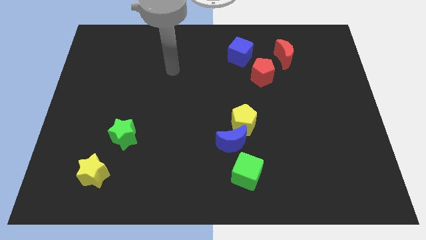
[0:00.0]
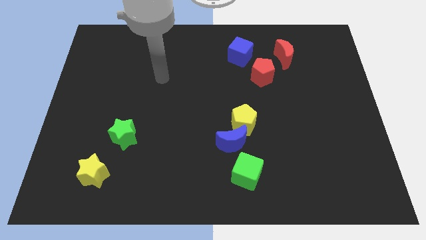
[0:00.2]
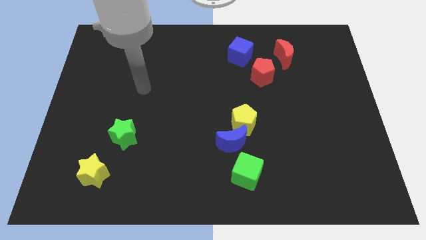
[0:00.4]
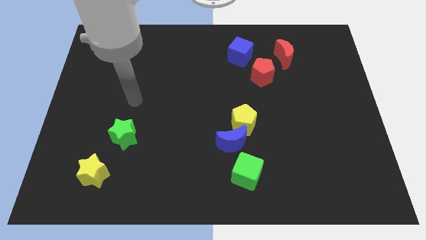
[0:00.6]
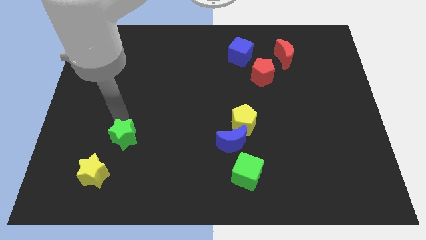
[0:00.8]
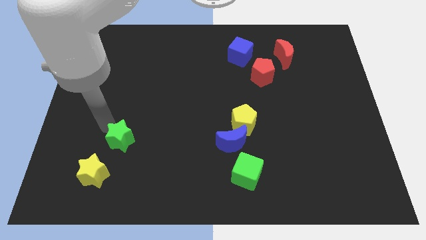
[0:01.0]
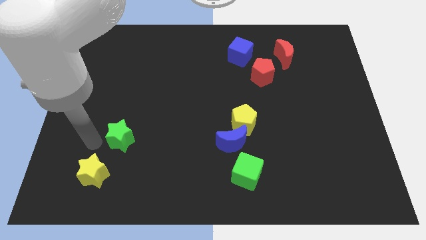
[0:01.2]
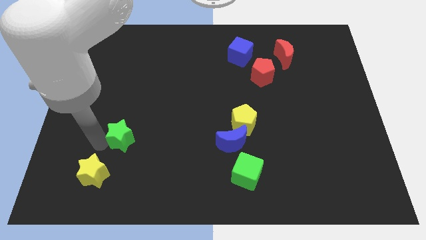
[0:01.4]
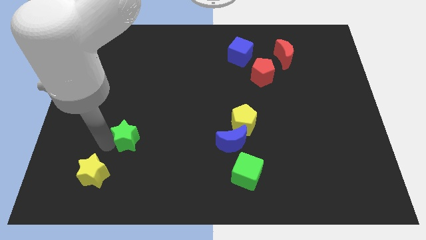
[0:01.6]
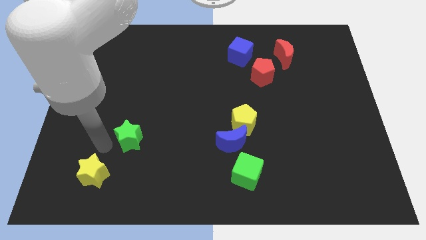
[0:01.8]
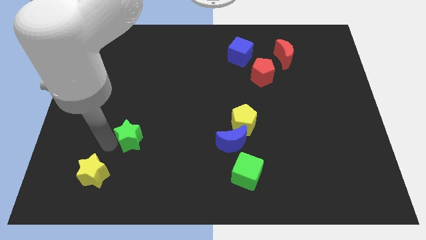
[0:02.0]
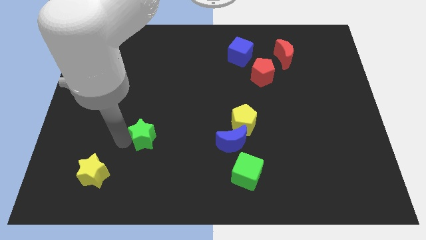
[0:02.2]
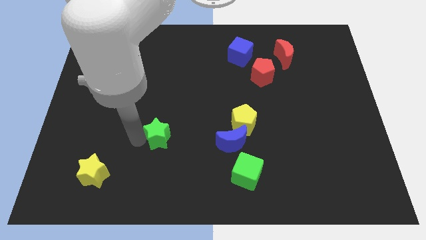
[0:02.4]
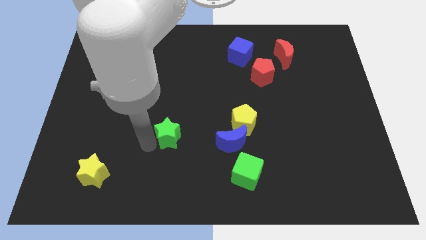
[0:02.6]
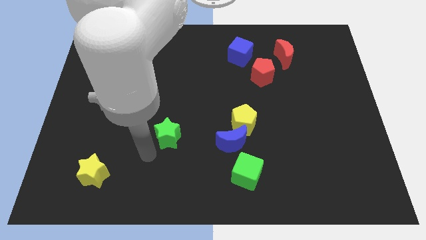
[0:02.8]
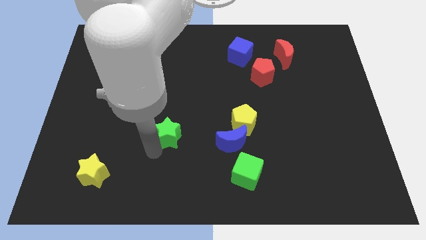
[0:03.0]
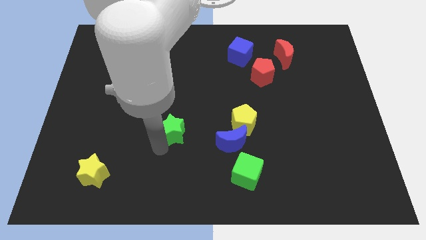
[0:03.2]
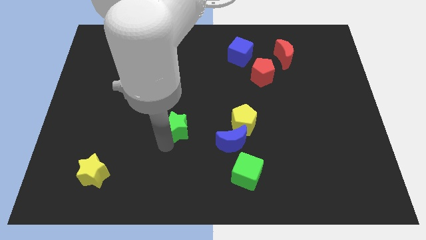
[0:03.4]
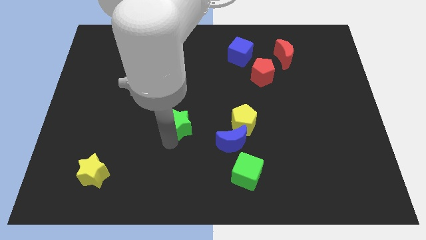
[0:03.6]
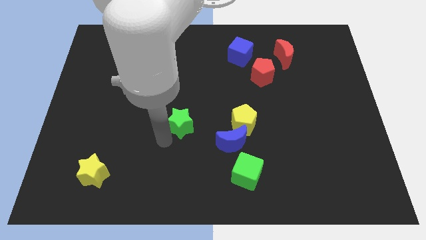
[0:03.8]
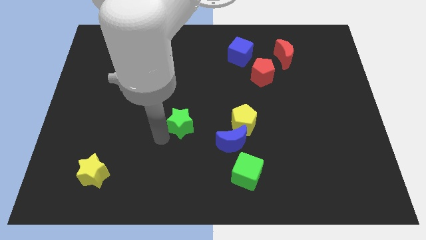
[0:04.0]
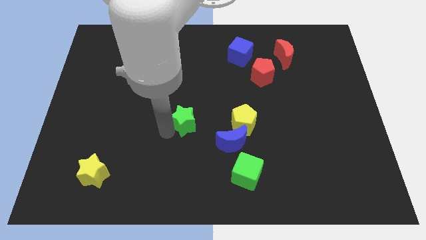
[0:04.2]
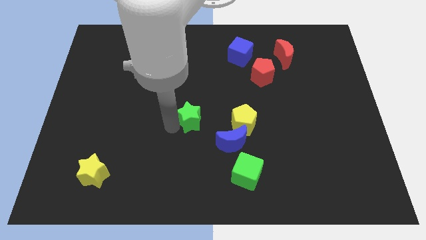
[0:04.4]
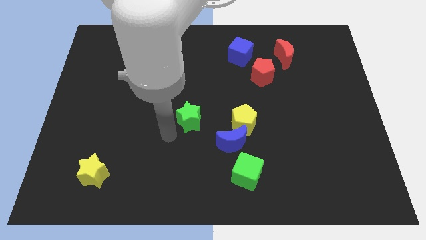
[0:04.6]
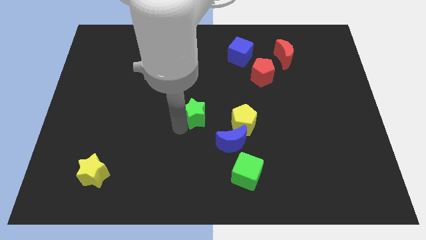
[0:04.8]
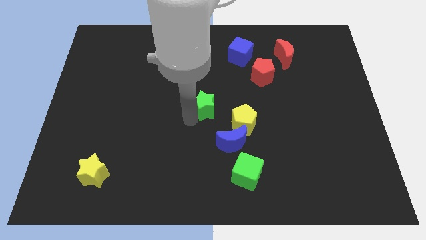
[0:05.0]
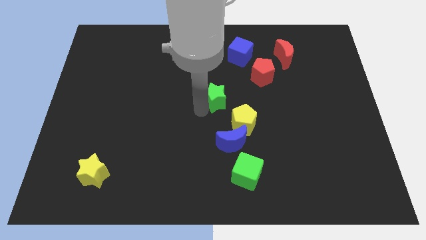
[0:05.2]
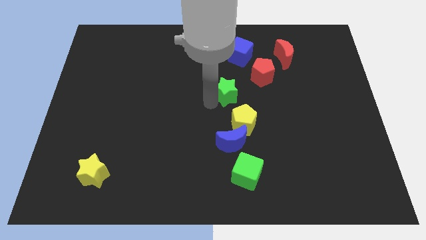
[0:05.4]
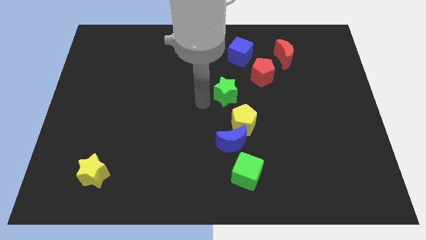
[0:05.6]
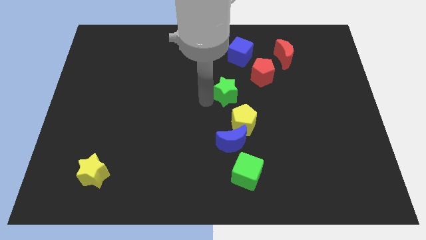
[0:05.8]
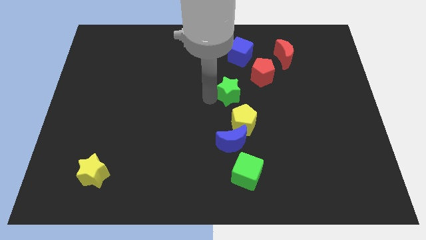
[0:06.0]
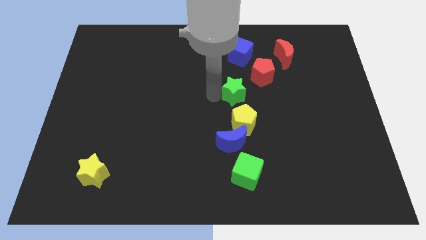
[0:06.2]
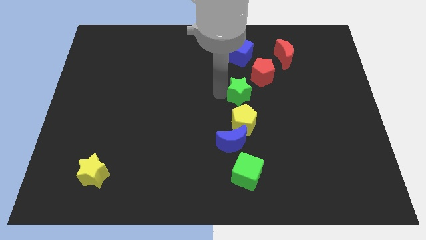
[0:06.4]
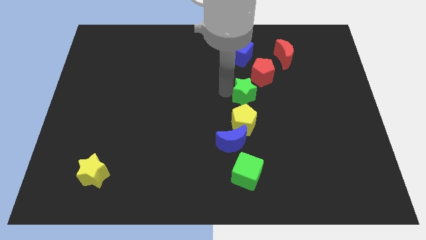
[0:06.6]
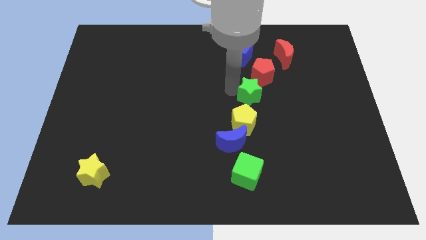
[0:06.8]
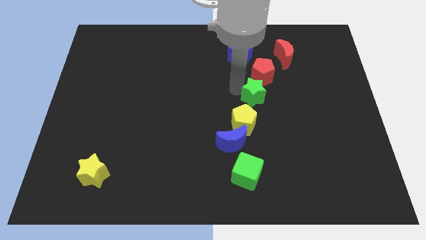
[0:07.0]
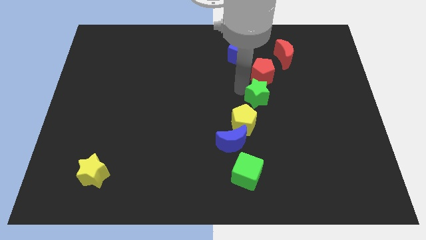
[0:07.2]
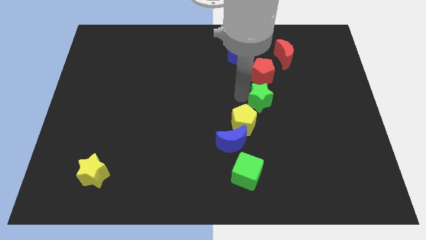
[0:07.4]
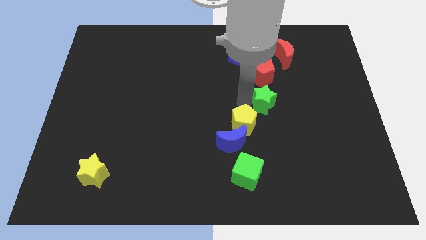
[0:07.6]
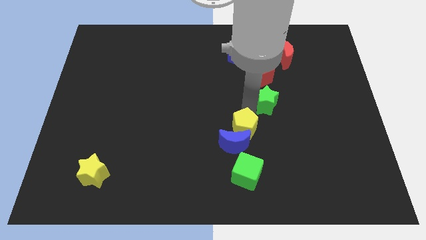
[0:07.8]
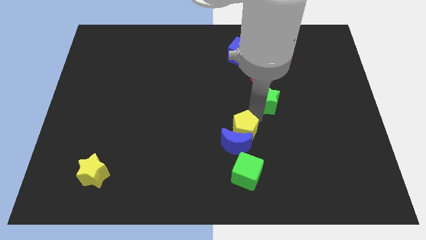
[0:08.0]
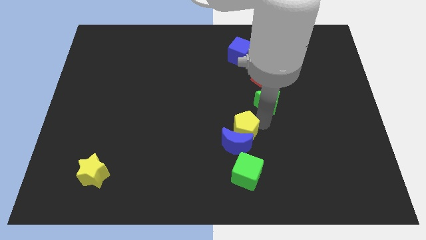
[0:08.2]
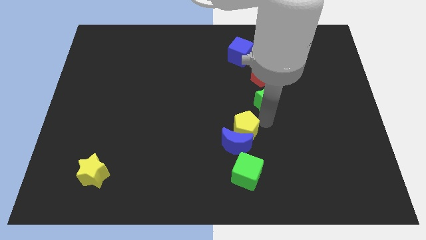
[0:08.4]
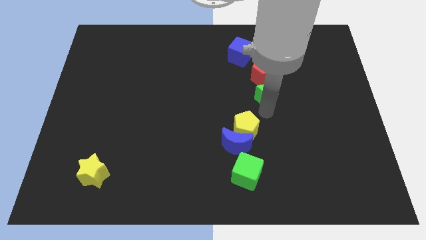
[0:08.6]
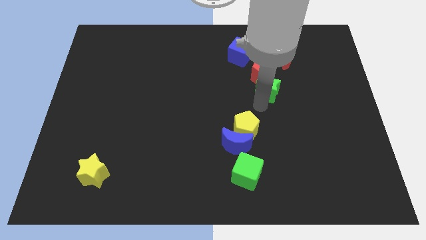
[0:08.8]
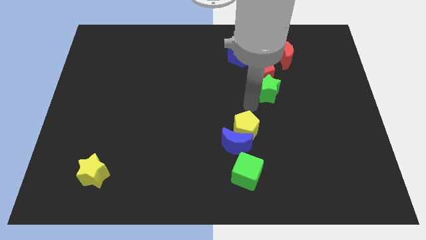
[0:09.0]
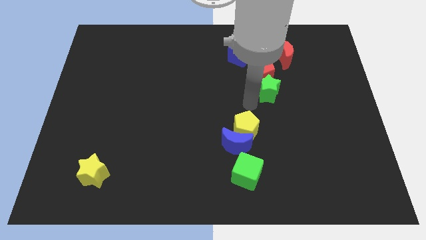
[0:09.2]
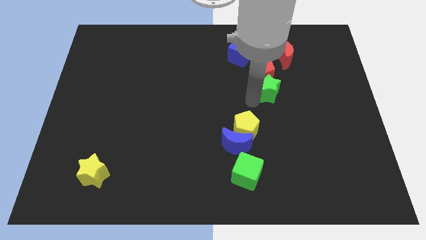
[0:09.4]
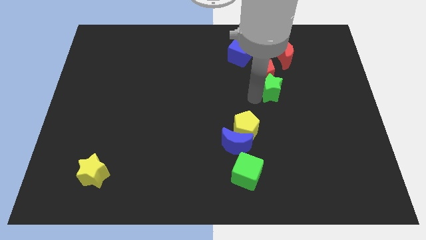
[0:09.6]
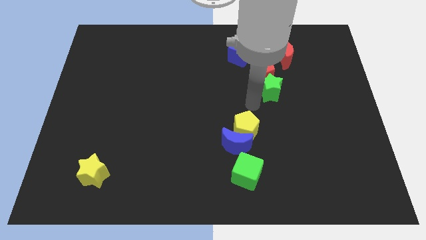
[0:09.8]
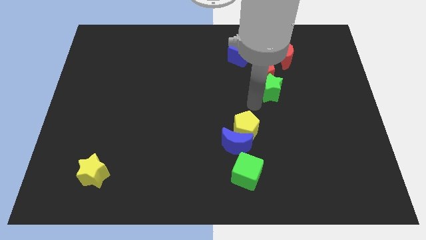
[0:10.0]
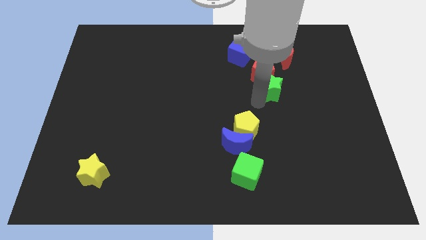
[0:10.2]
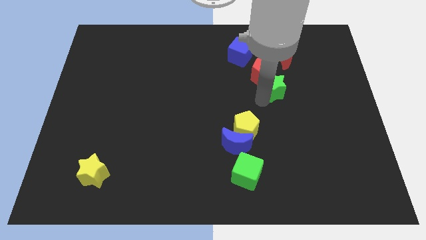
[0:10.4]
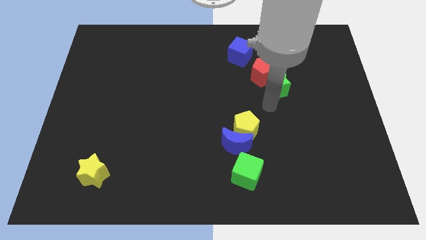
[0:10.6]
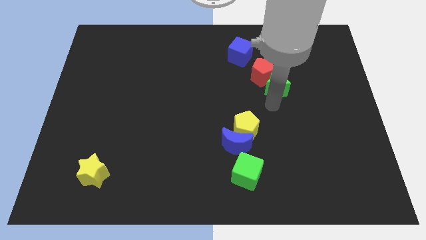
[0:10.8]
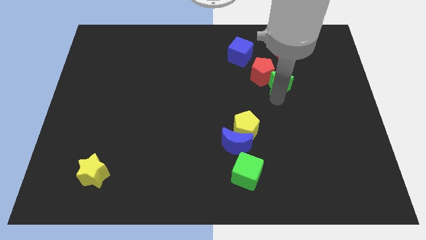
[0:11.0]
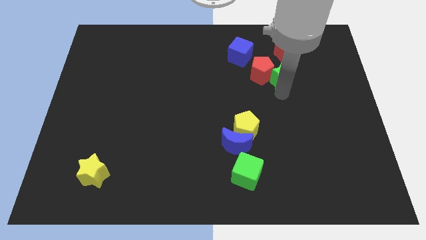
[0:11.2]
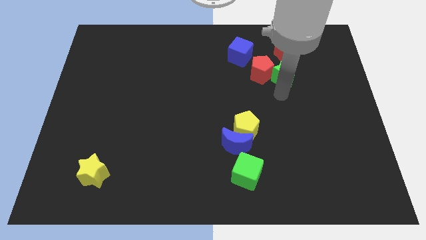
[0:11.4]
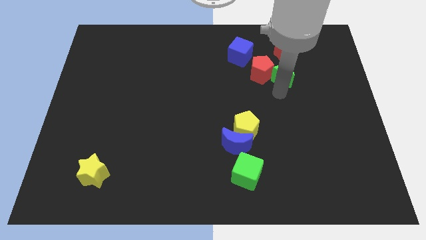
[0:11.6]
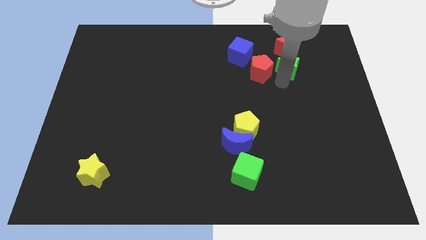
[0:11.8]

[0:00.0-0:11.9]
push the green star to the red moon

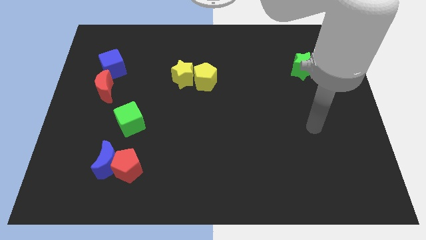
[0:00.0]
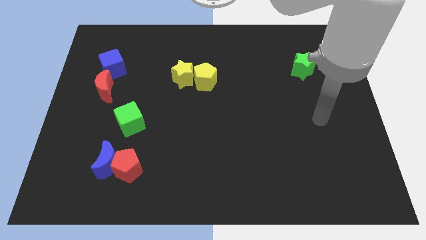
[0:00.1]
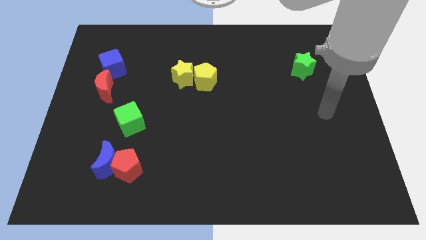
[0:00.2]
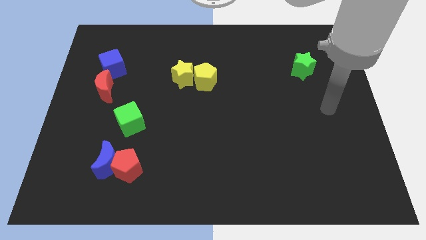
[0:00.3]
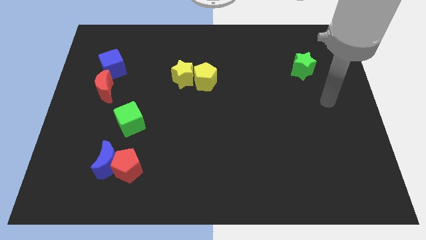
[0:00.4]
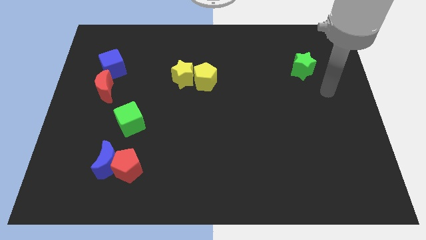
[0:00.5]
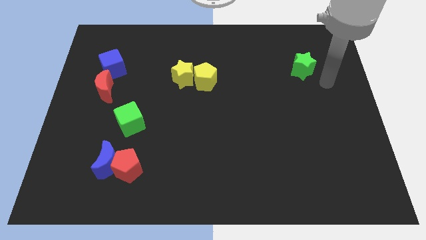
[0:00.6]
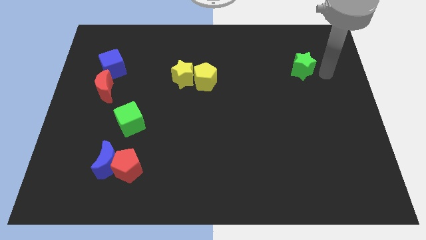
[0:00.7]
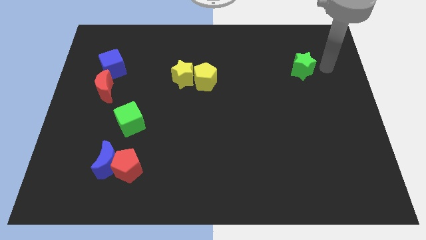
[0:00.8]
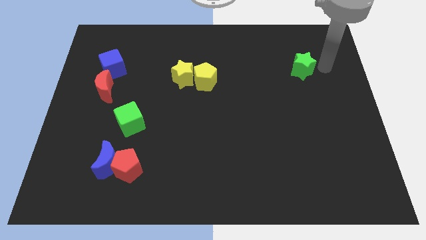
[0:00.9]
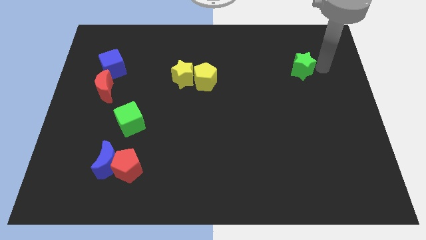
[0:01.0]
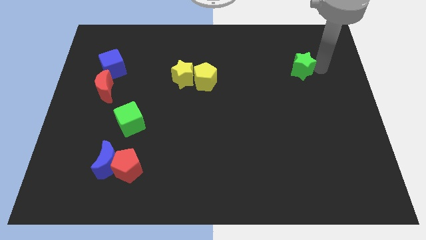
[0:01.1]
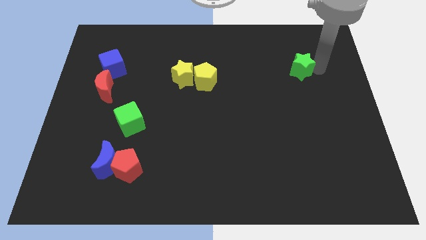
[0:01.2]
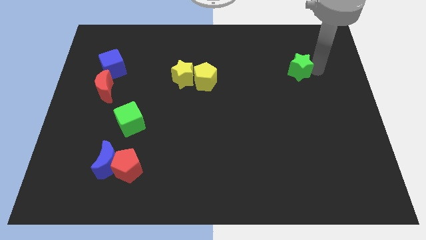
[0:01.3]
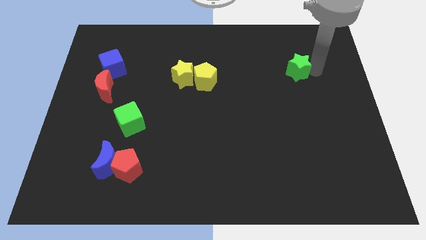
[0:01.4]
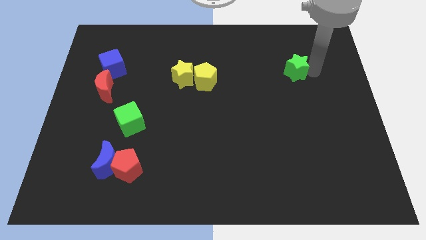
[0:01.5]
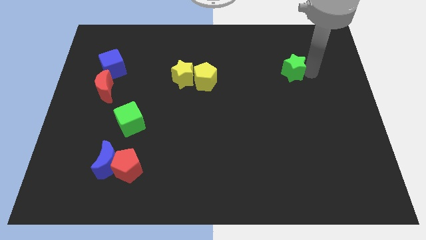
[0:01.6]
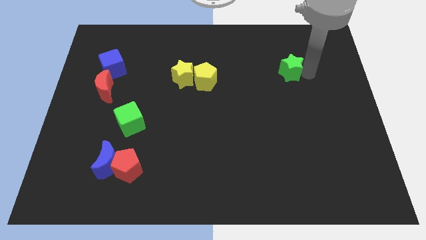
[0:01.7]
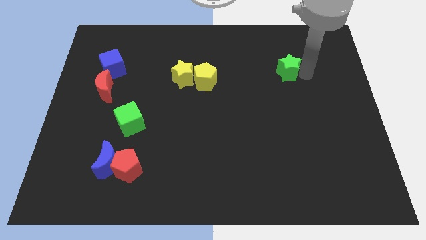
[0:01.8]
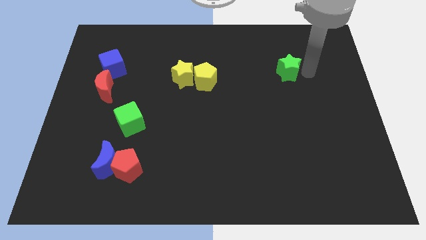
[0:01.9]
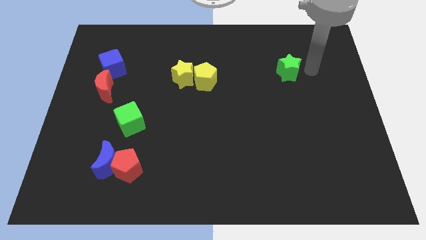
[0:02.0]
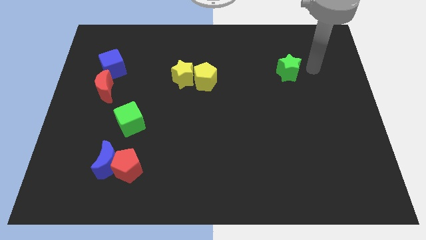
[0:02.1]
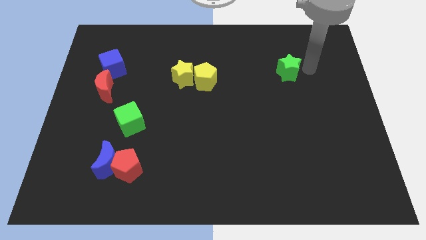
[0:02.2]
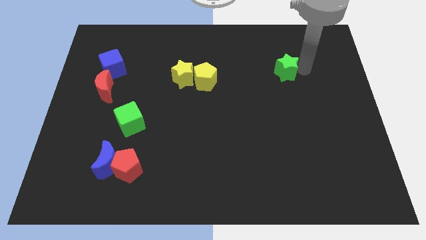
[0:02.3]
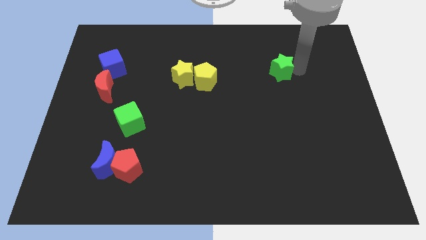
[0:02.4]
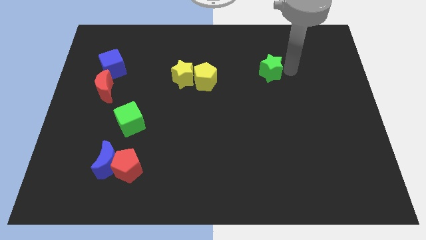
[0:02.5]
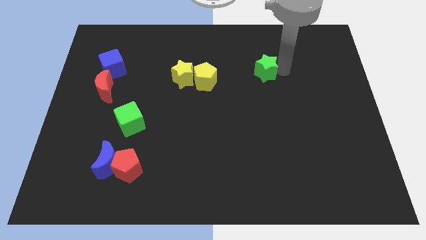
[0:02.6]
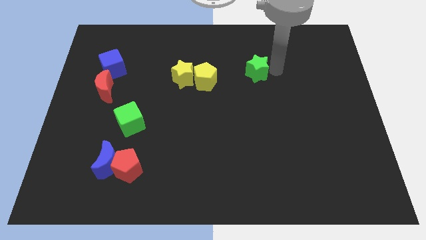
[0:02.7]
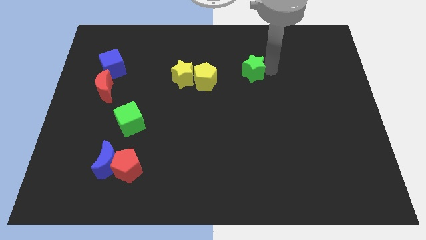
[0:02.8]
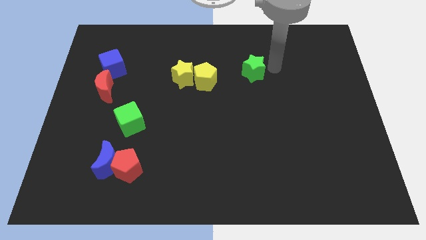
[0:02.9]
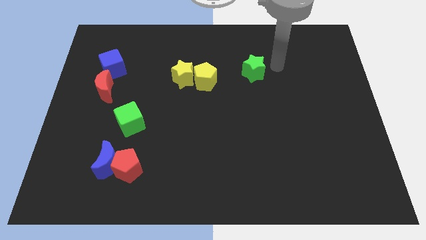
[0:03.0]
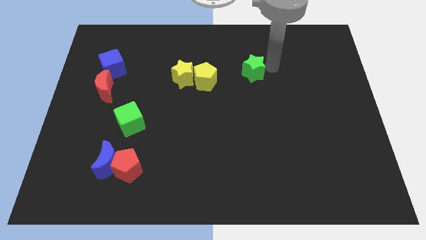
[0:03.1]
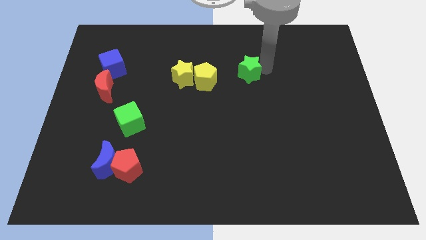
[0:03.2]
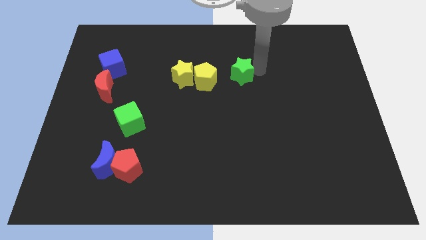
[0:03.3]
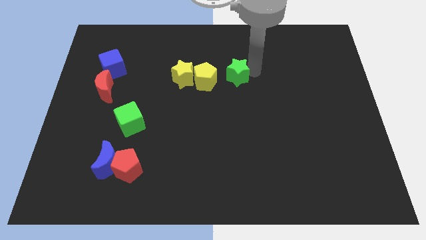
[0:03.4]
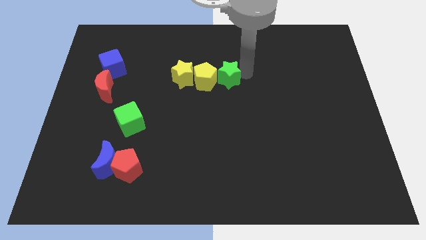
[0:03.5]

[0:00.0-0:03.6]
move the green star next to the yellow pentagon
